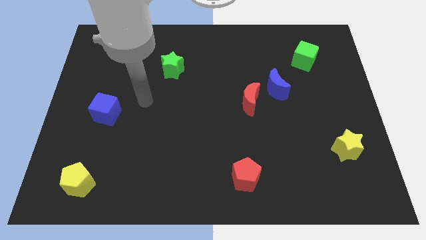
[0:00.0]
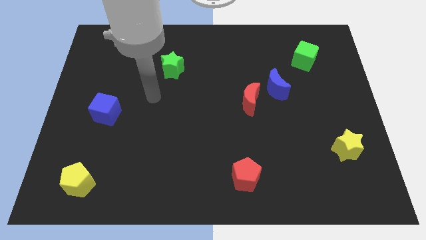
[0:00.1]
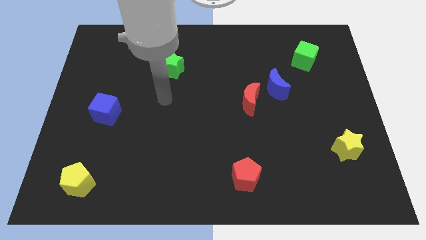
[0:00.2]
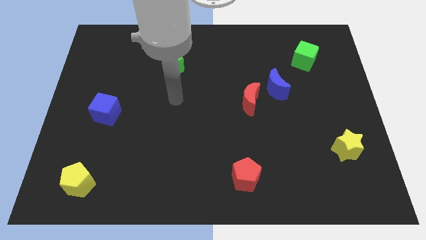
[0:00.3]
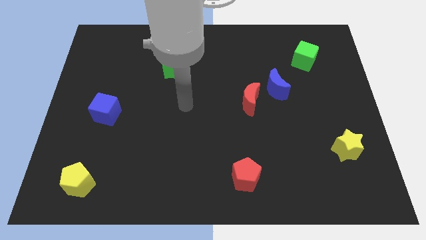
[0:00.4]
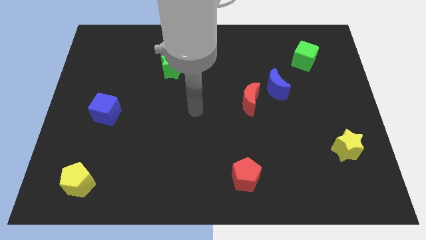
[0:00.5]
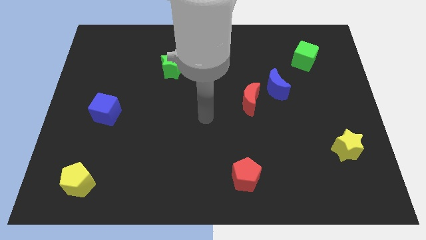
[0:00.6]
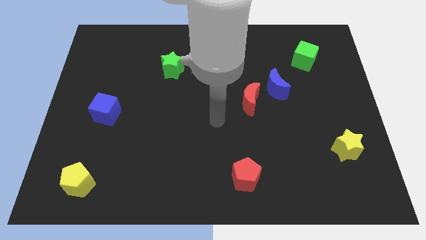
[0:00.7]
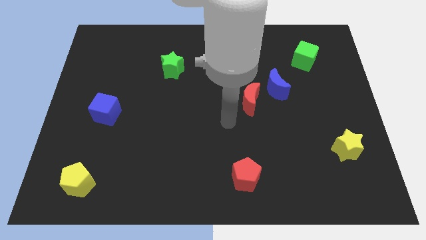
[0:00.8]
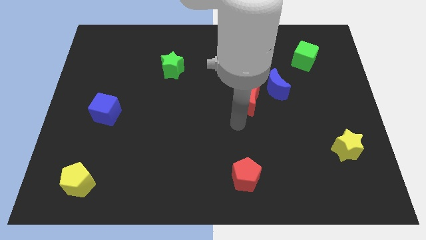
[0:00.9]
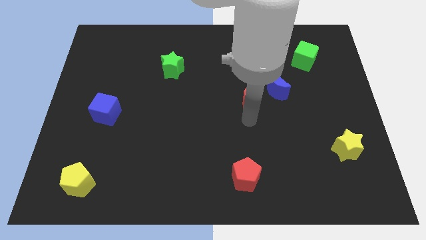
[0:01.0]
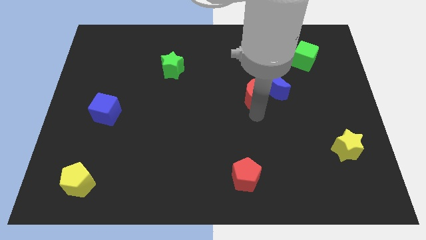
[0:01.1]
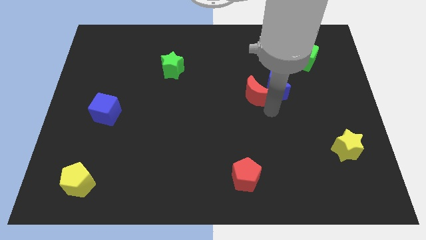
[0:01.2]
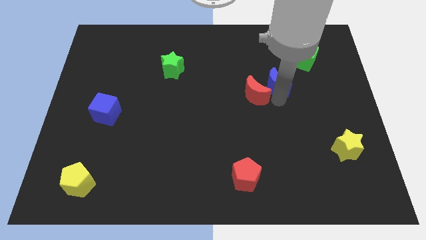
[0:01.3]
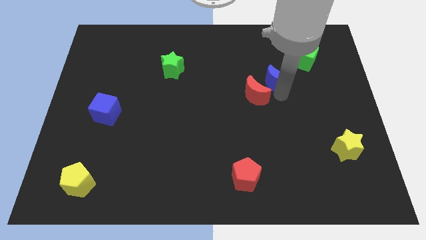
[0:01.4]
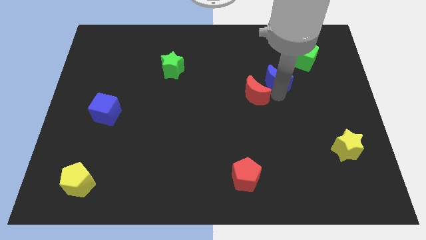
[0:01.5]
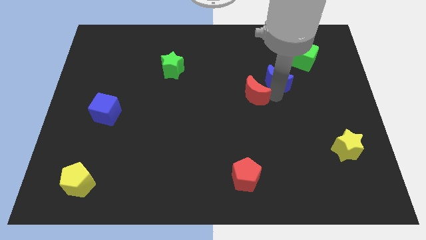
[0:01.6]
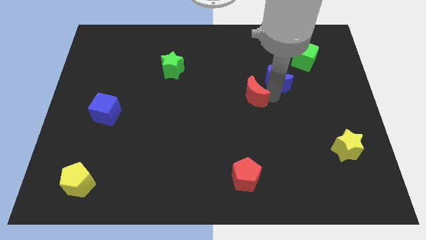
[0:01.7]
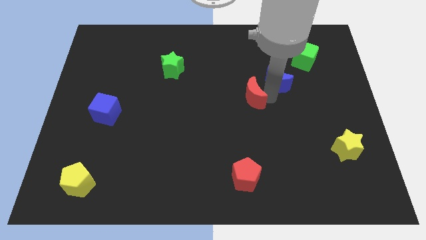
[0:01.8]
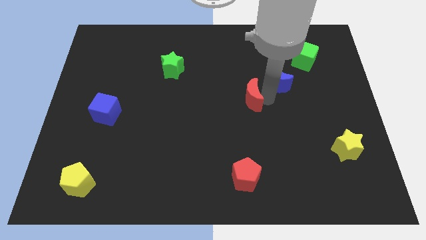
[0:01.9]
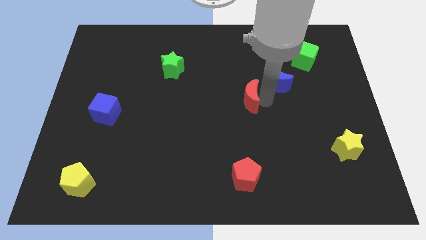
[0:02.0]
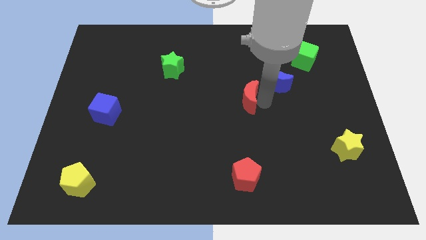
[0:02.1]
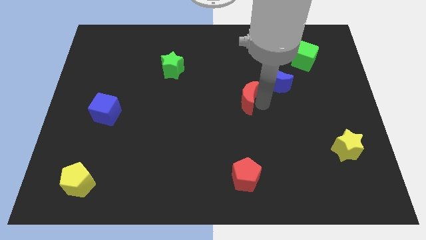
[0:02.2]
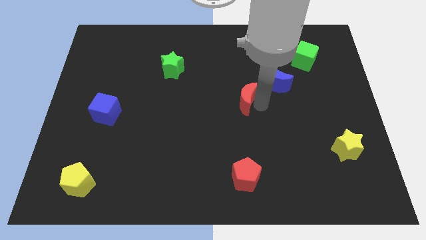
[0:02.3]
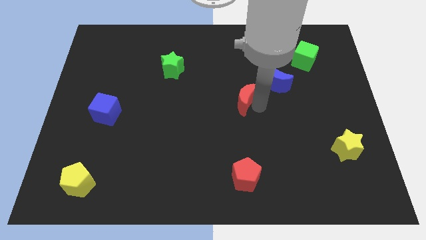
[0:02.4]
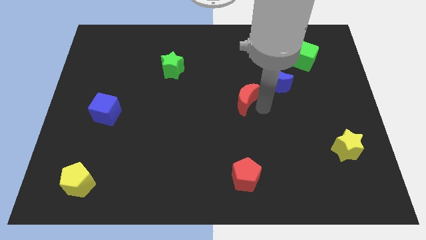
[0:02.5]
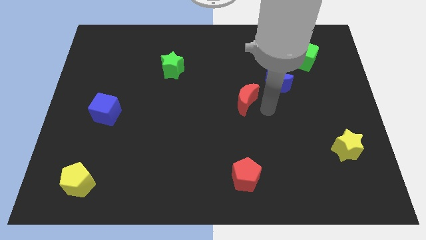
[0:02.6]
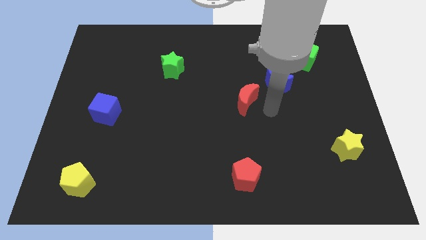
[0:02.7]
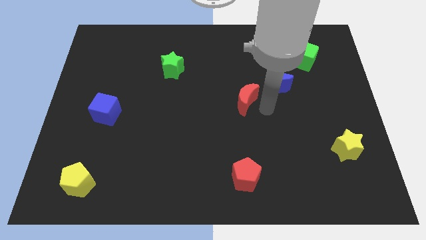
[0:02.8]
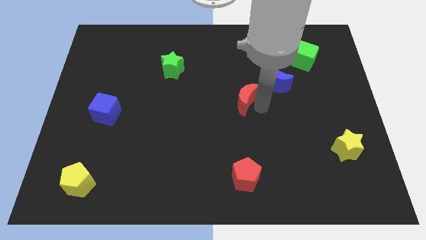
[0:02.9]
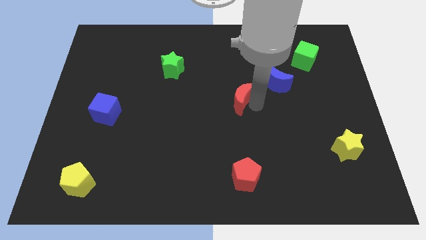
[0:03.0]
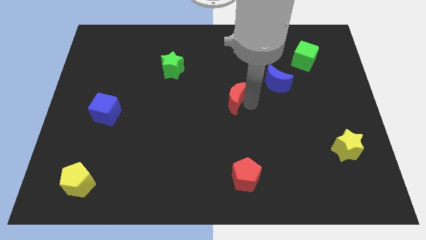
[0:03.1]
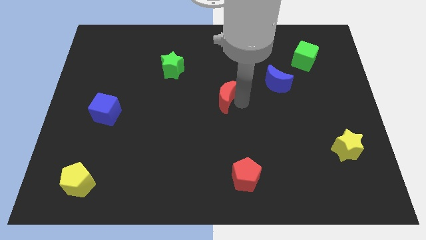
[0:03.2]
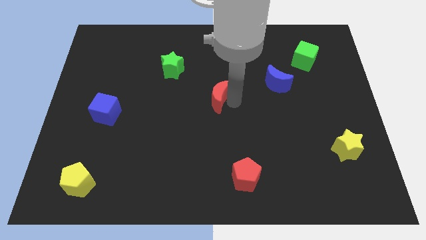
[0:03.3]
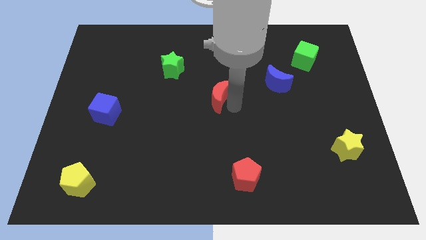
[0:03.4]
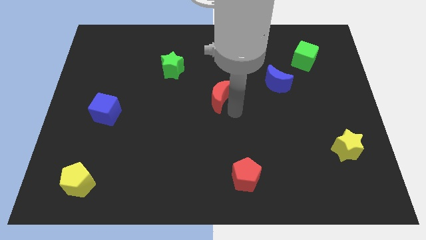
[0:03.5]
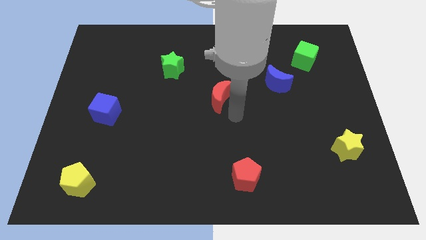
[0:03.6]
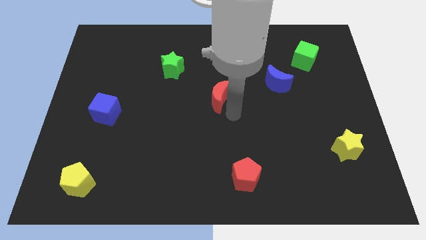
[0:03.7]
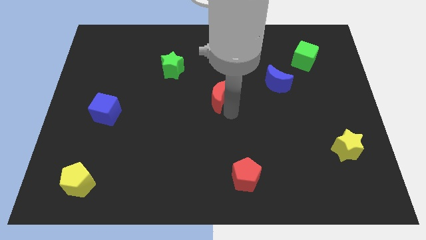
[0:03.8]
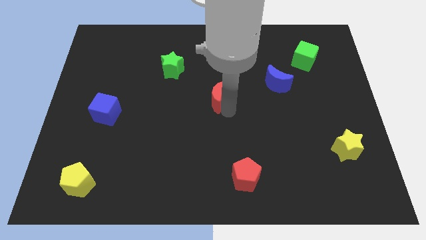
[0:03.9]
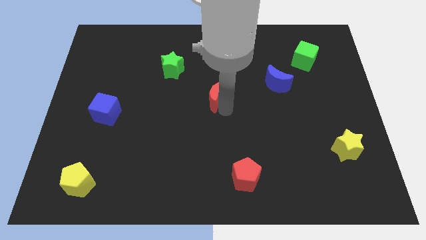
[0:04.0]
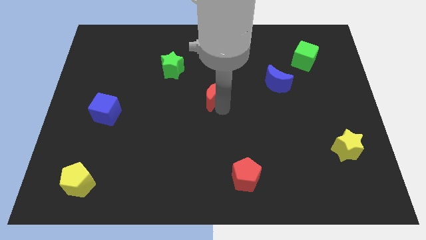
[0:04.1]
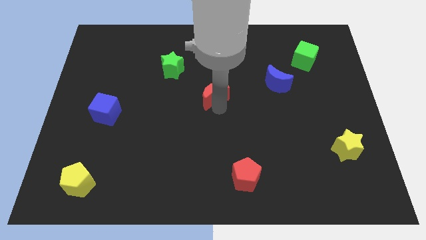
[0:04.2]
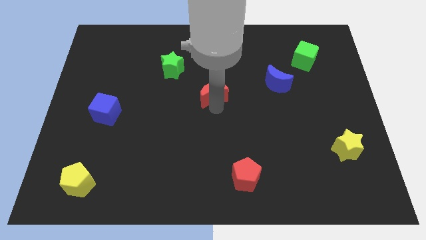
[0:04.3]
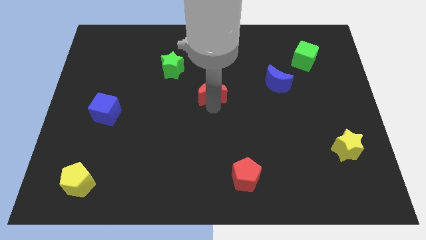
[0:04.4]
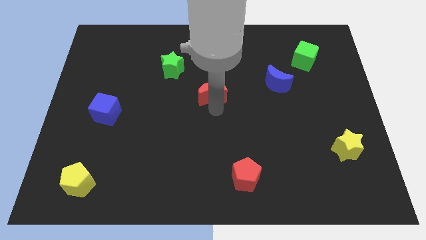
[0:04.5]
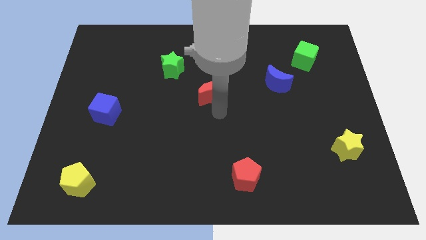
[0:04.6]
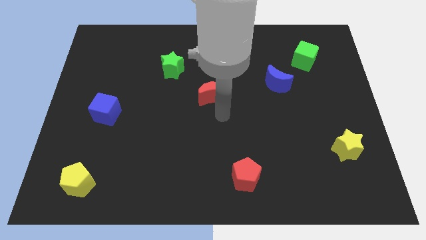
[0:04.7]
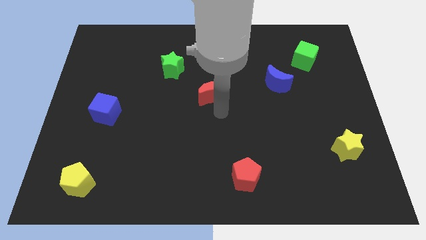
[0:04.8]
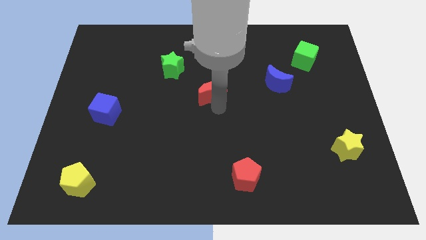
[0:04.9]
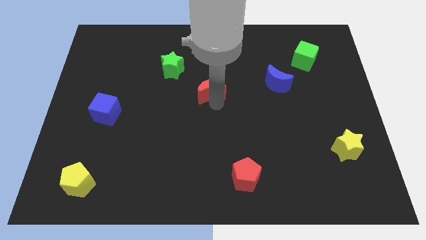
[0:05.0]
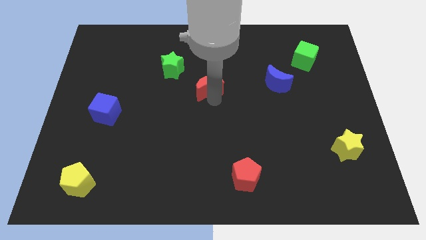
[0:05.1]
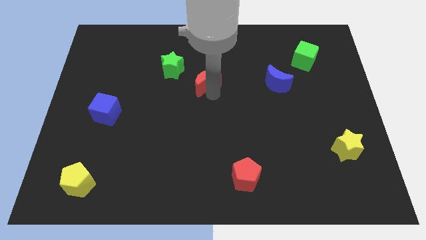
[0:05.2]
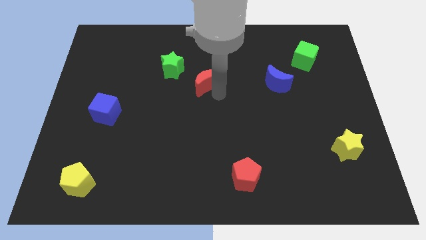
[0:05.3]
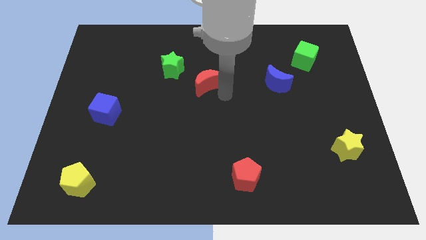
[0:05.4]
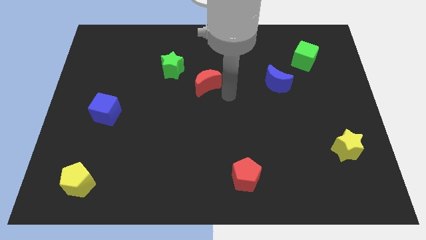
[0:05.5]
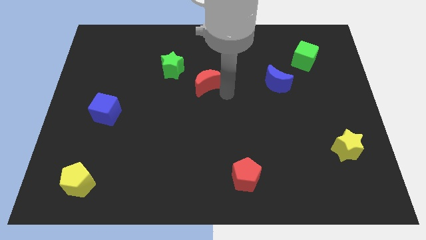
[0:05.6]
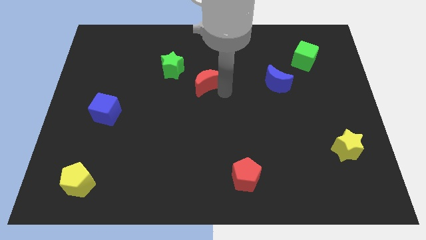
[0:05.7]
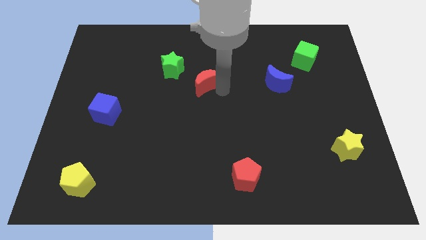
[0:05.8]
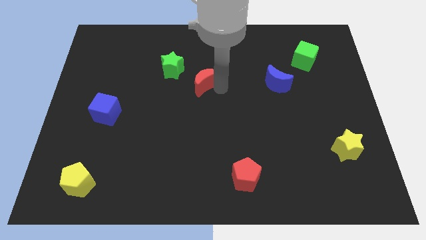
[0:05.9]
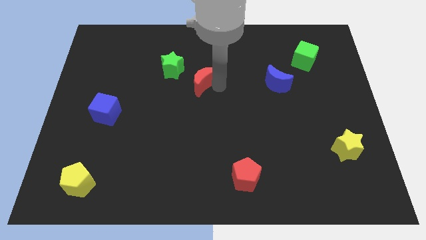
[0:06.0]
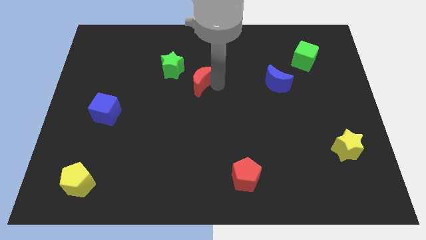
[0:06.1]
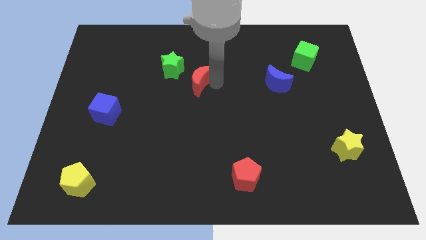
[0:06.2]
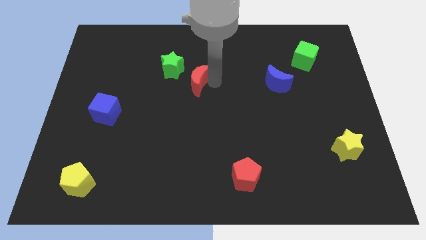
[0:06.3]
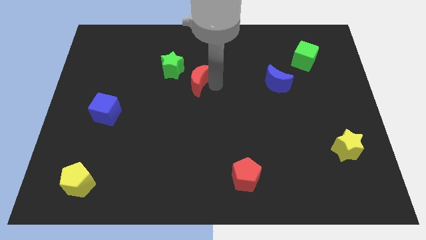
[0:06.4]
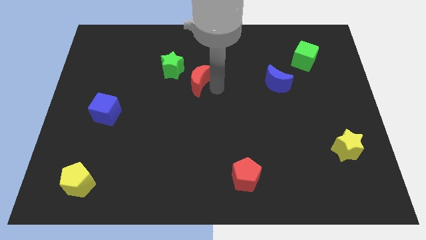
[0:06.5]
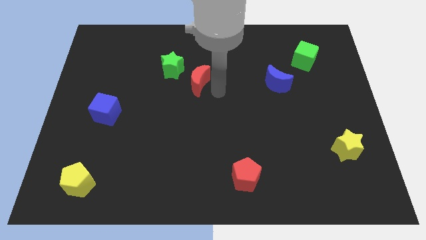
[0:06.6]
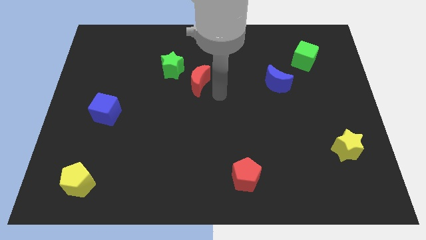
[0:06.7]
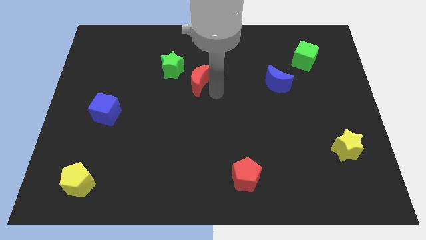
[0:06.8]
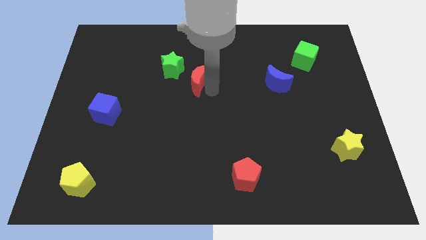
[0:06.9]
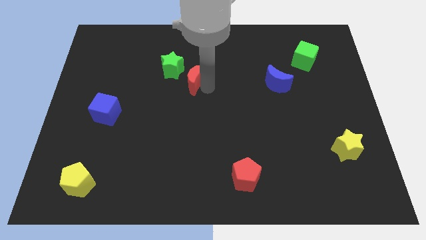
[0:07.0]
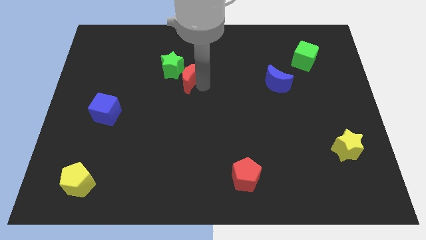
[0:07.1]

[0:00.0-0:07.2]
put the red moon next to the green star

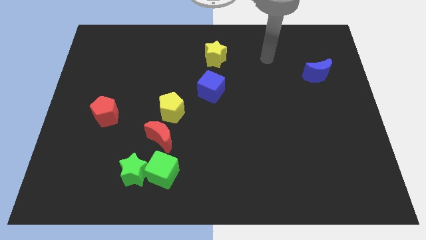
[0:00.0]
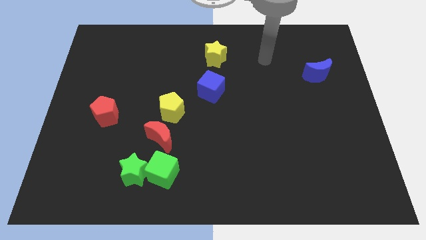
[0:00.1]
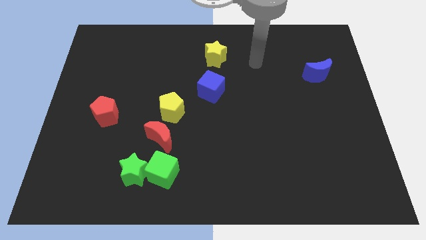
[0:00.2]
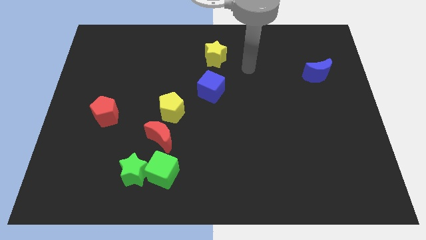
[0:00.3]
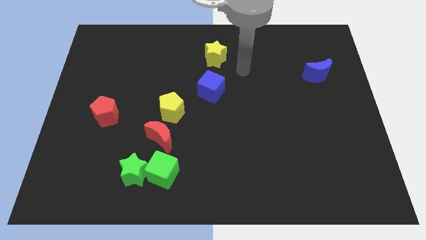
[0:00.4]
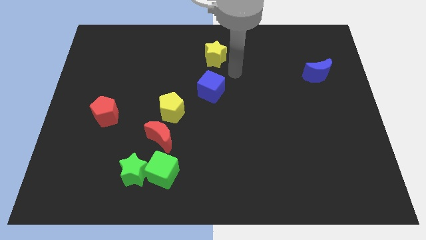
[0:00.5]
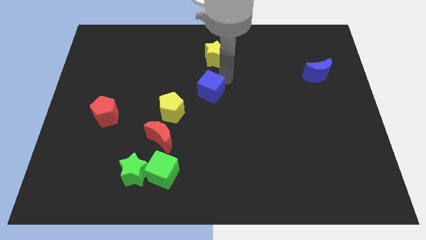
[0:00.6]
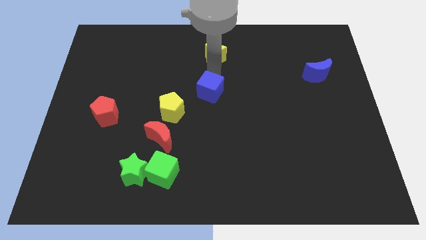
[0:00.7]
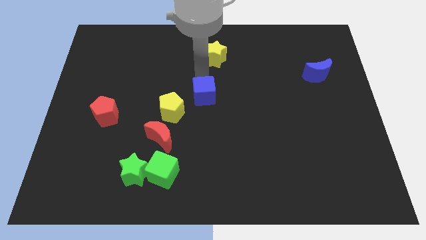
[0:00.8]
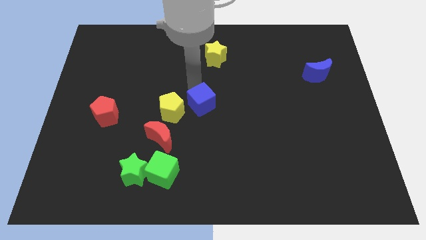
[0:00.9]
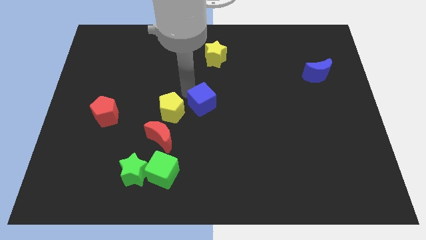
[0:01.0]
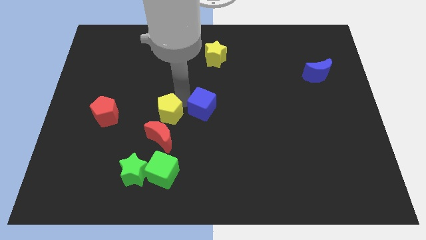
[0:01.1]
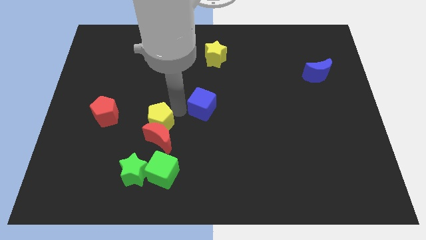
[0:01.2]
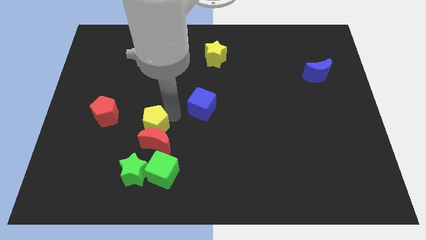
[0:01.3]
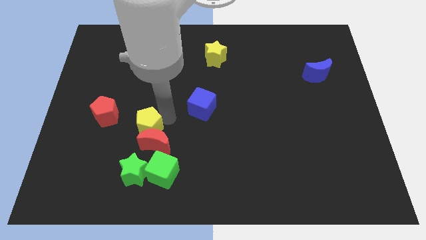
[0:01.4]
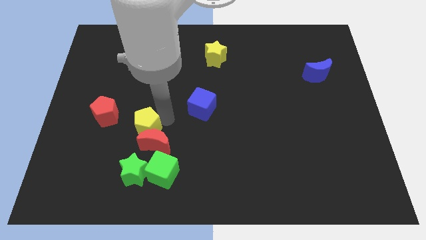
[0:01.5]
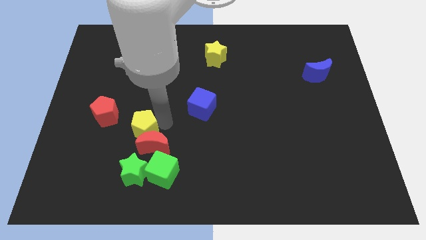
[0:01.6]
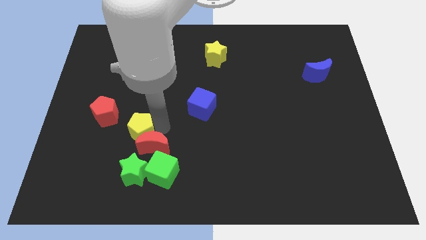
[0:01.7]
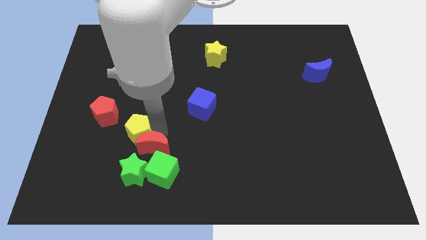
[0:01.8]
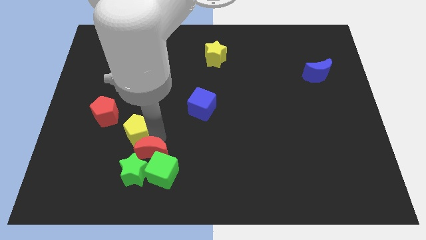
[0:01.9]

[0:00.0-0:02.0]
push the red moon close to the green star
